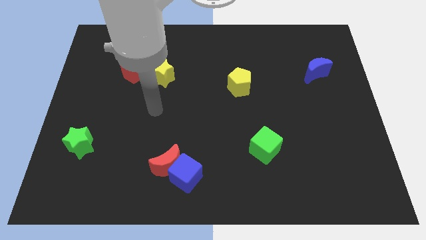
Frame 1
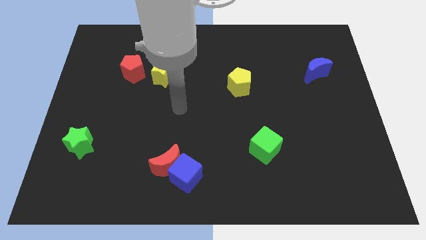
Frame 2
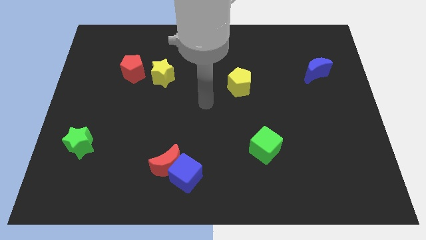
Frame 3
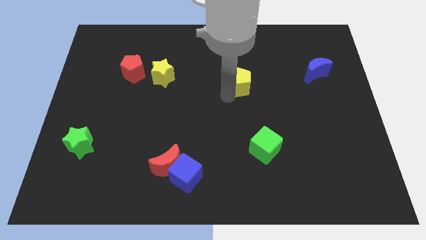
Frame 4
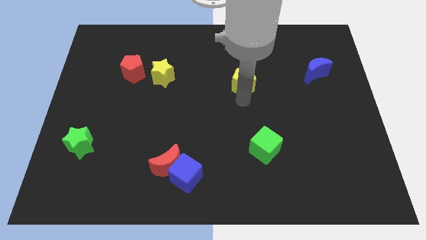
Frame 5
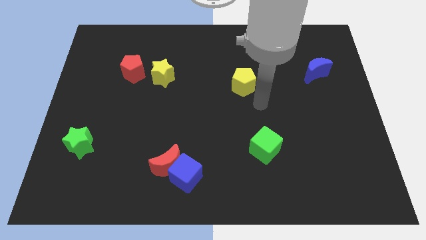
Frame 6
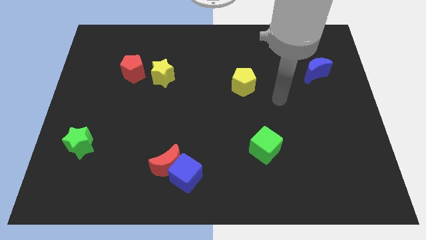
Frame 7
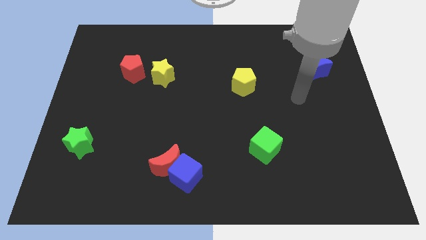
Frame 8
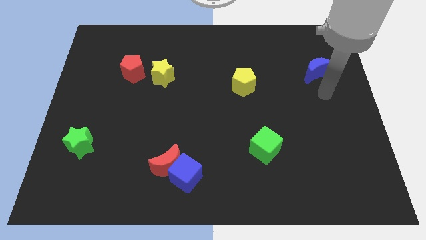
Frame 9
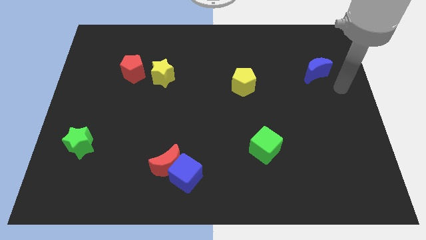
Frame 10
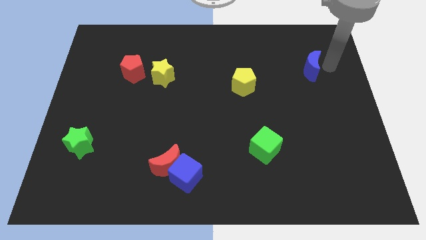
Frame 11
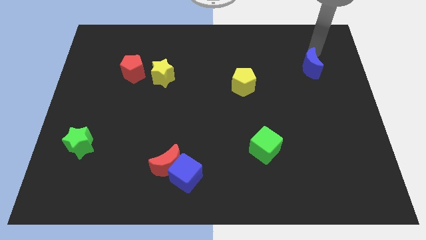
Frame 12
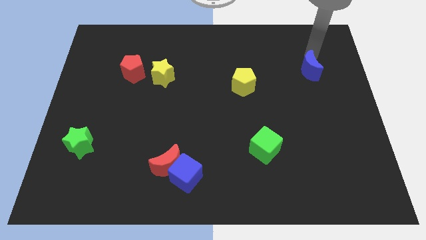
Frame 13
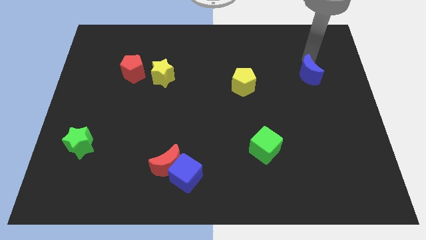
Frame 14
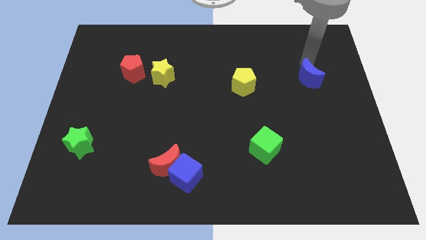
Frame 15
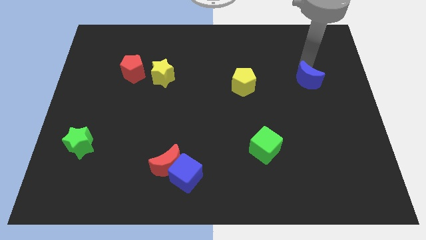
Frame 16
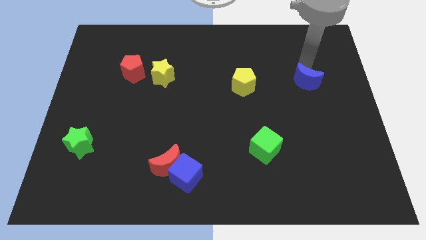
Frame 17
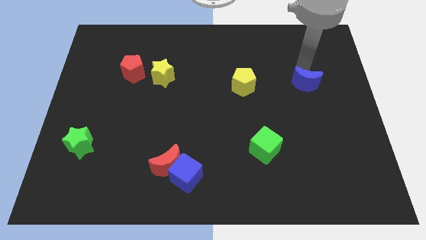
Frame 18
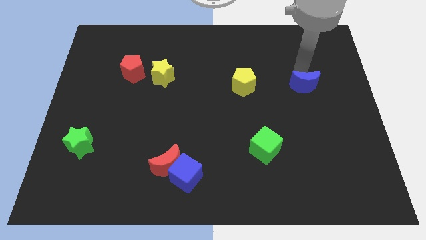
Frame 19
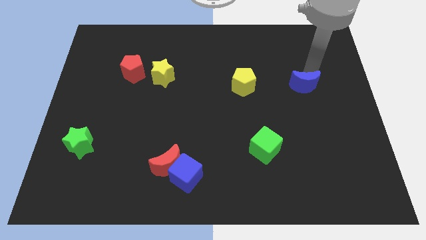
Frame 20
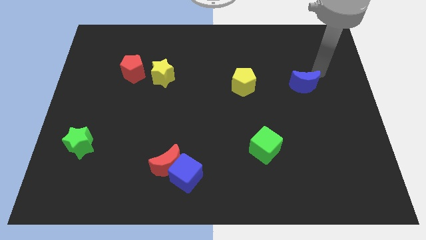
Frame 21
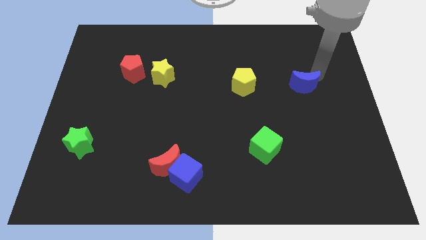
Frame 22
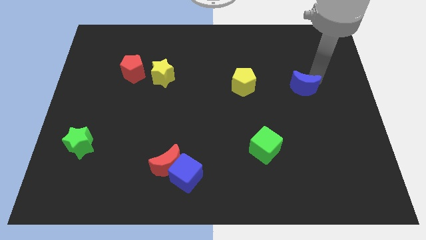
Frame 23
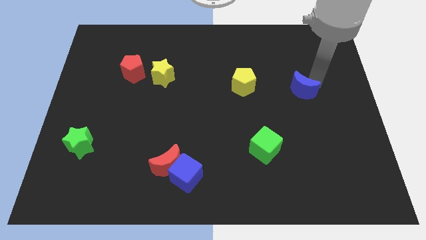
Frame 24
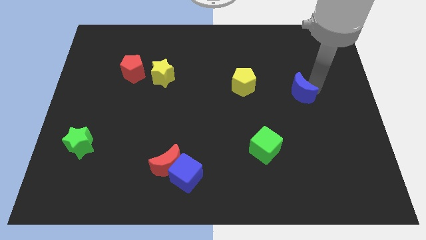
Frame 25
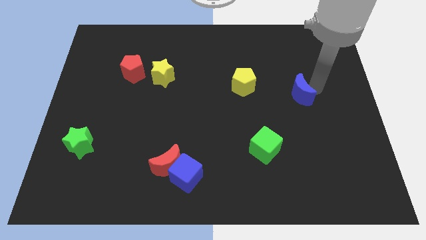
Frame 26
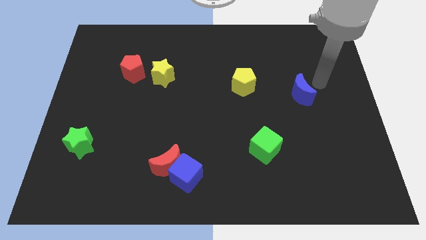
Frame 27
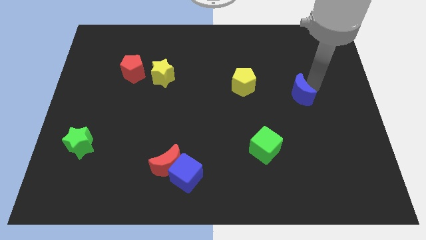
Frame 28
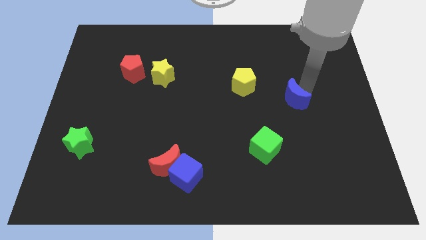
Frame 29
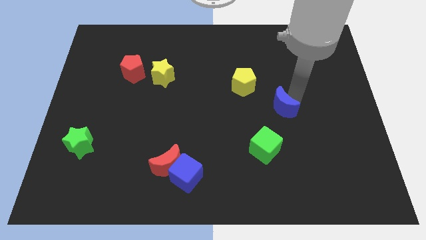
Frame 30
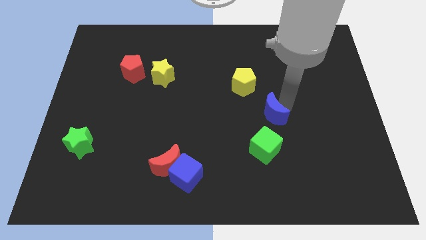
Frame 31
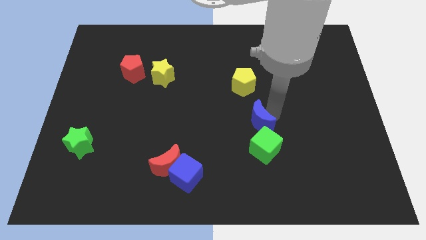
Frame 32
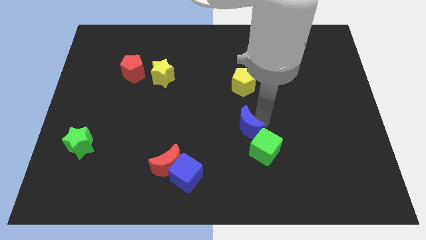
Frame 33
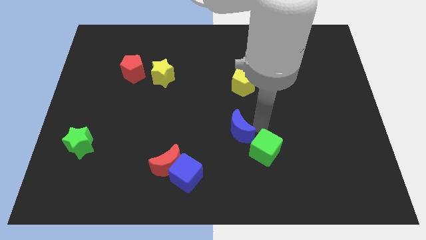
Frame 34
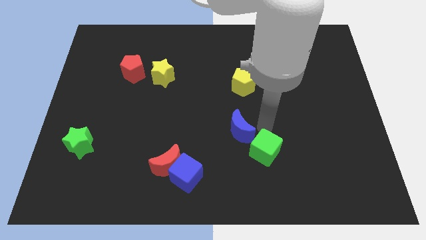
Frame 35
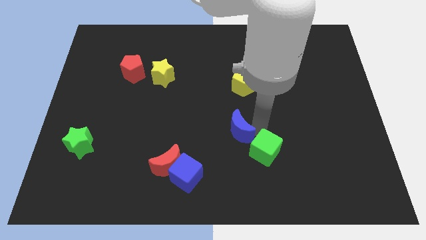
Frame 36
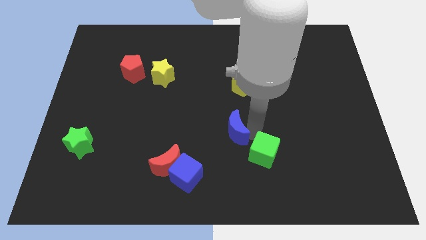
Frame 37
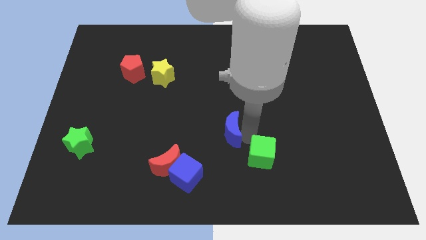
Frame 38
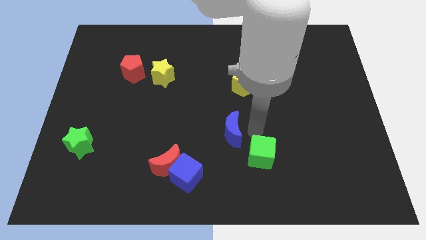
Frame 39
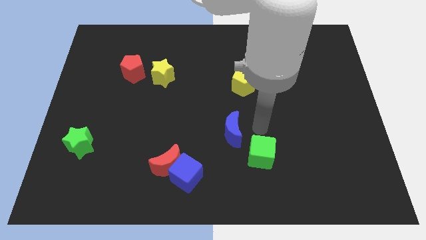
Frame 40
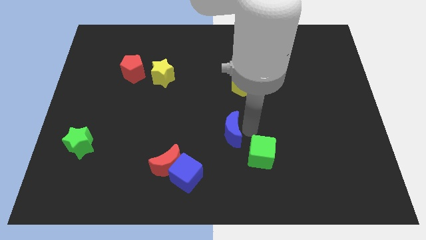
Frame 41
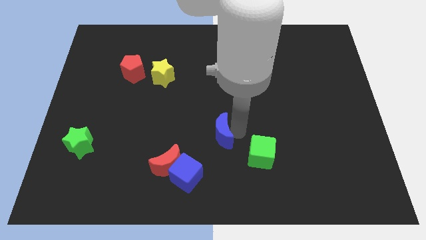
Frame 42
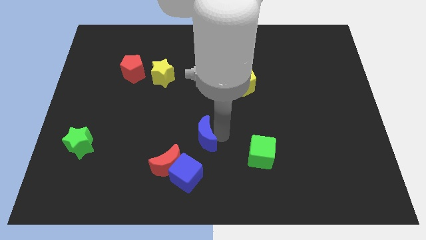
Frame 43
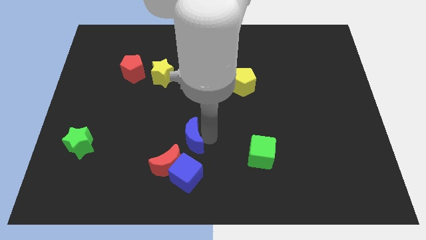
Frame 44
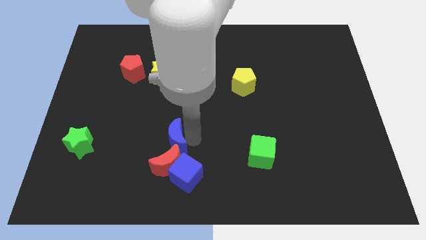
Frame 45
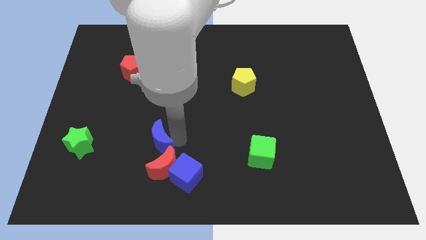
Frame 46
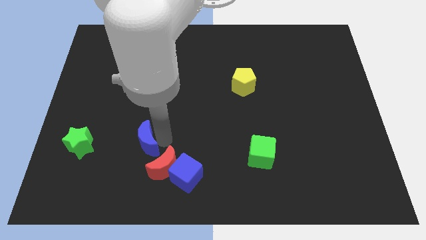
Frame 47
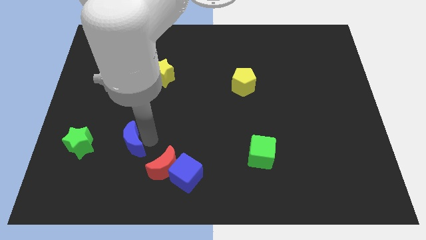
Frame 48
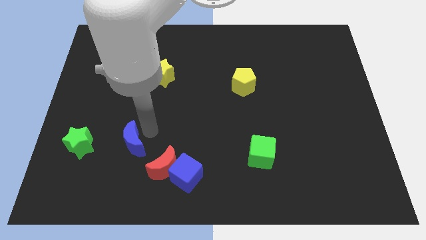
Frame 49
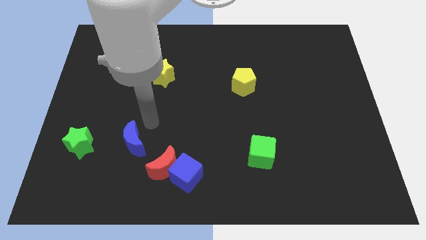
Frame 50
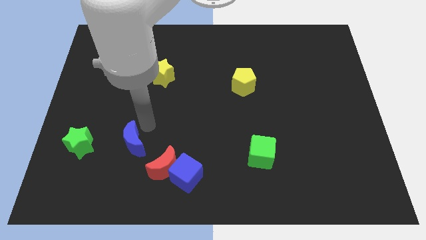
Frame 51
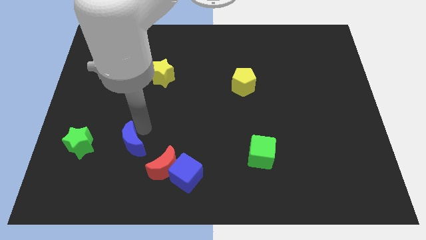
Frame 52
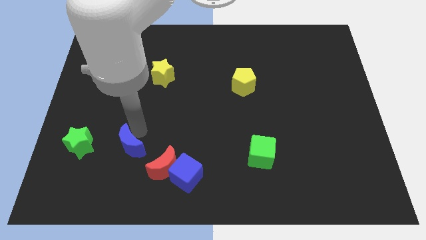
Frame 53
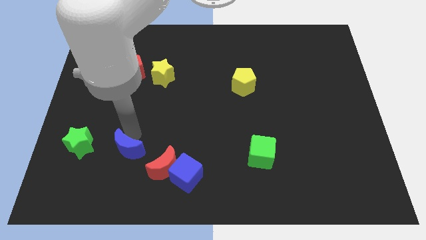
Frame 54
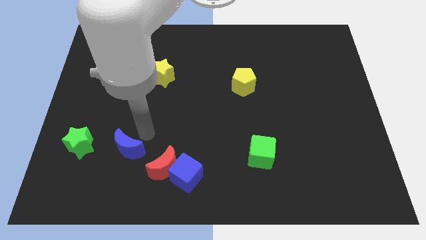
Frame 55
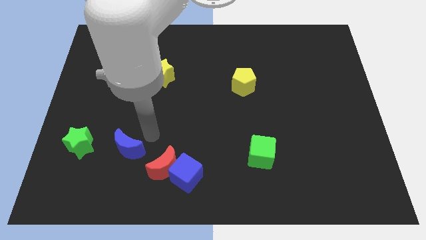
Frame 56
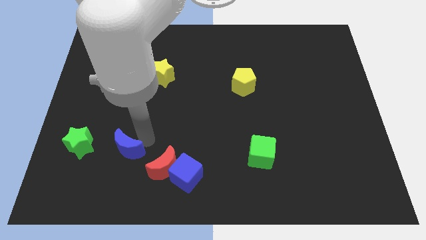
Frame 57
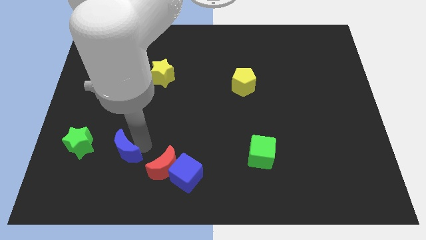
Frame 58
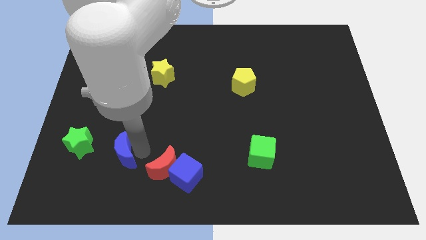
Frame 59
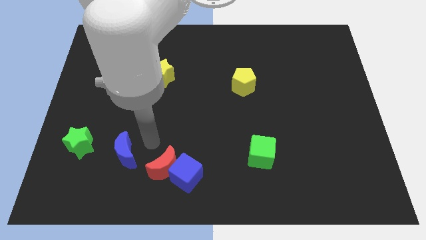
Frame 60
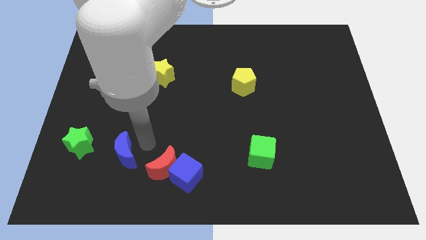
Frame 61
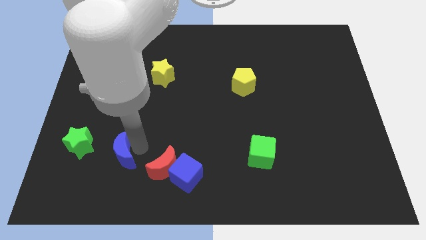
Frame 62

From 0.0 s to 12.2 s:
put the blue moon diagonally down and to the right of the green star
